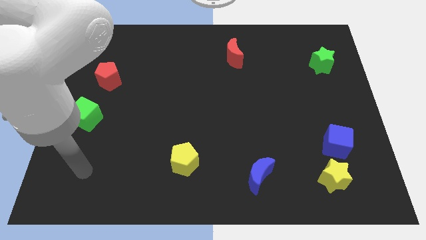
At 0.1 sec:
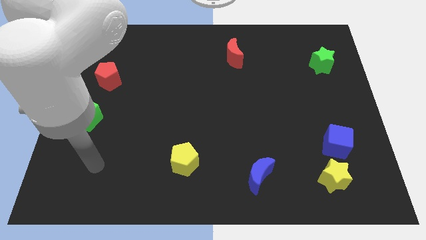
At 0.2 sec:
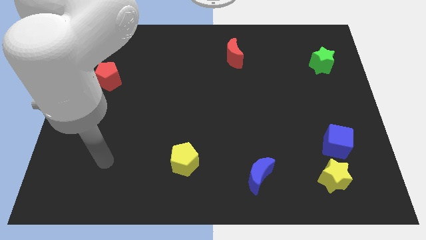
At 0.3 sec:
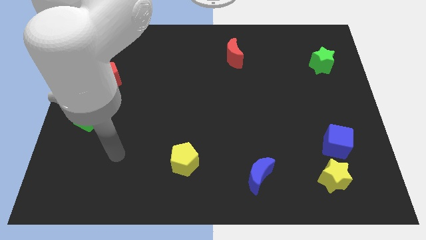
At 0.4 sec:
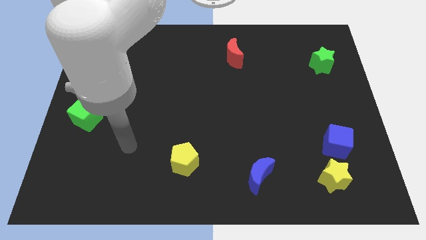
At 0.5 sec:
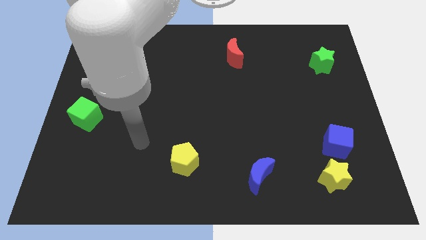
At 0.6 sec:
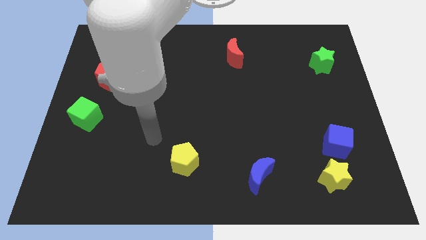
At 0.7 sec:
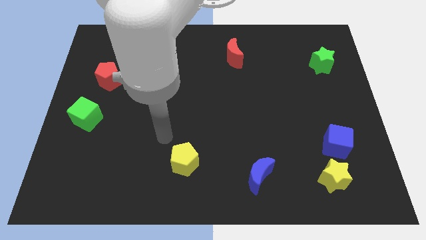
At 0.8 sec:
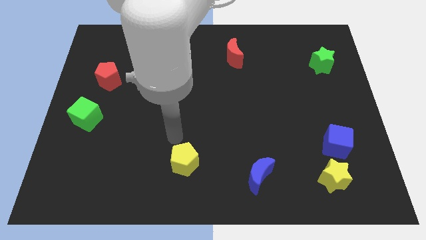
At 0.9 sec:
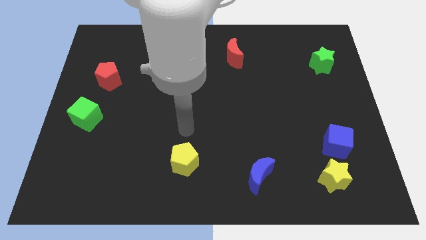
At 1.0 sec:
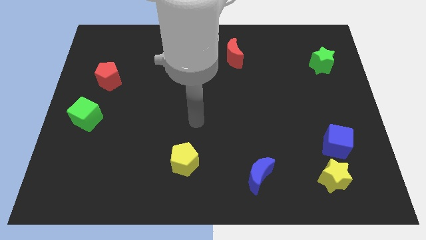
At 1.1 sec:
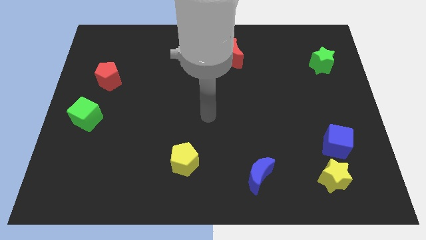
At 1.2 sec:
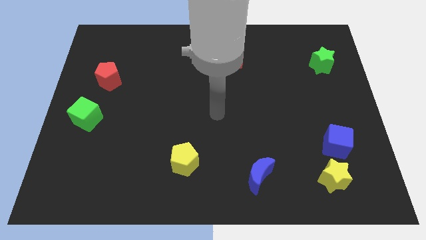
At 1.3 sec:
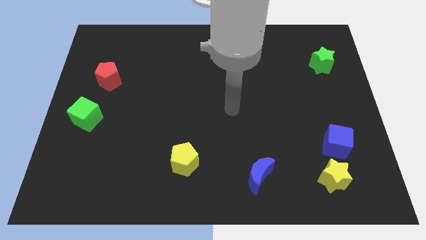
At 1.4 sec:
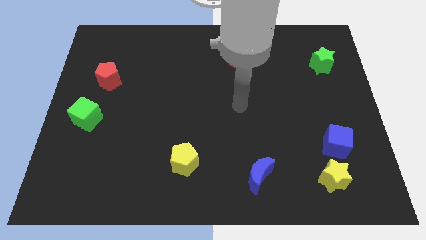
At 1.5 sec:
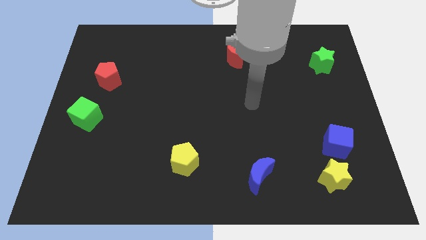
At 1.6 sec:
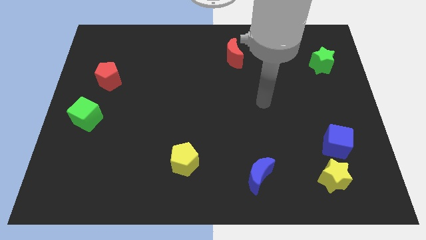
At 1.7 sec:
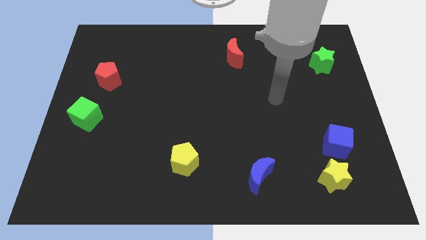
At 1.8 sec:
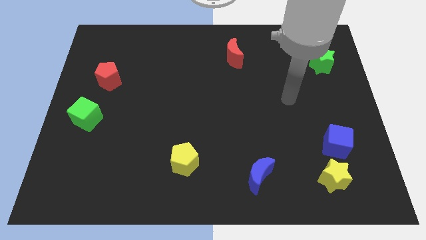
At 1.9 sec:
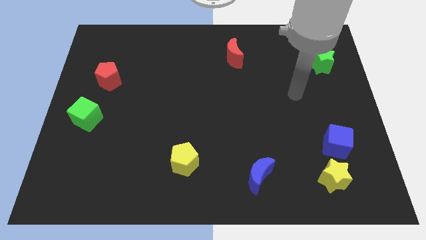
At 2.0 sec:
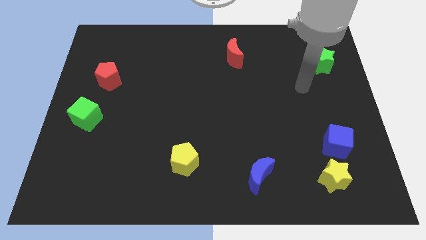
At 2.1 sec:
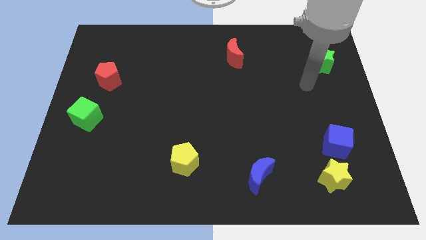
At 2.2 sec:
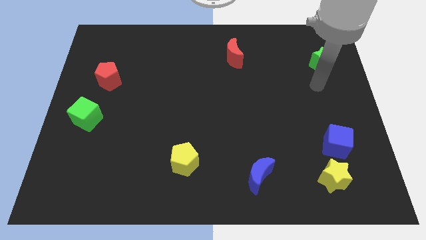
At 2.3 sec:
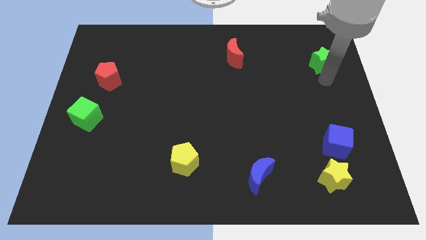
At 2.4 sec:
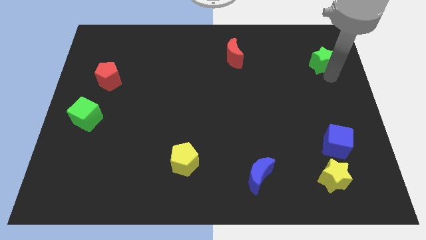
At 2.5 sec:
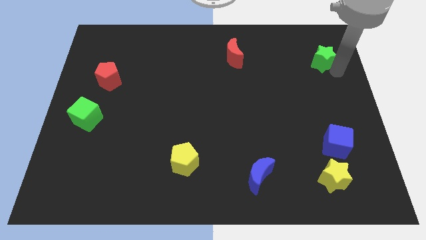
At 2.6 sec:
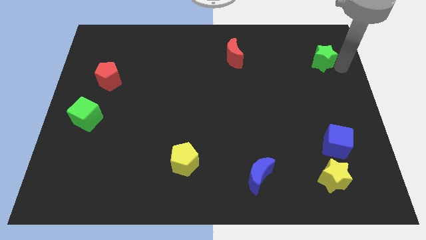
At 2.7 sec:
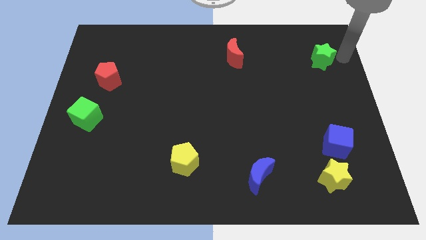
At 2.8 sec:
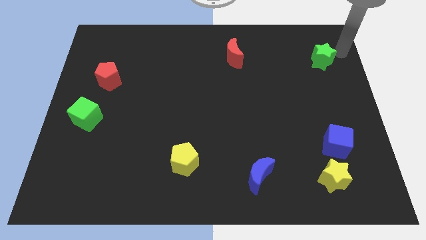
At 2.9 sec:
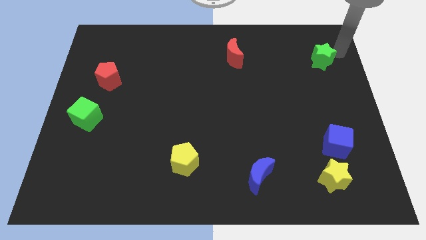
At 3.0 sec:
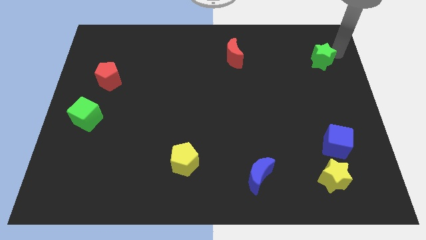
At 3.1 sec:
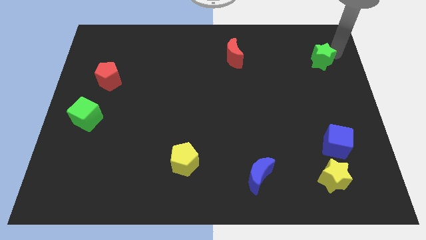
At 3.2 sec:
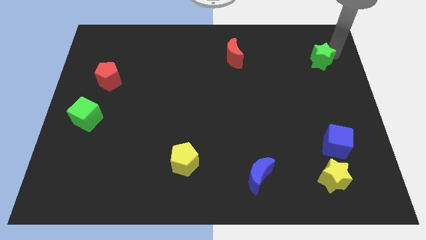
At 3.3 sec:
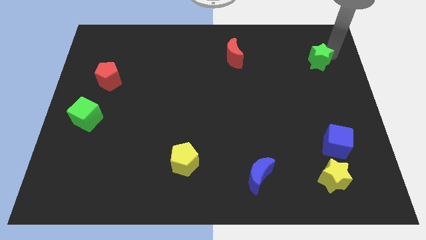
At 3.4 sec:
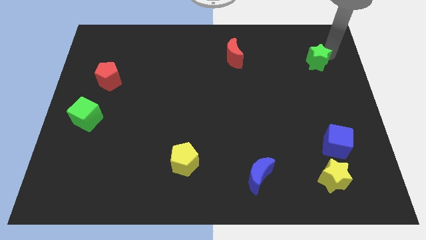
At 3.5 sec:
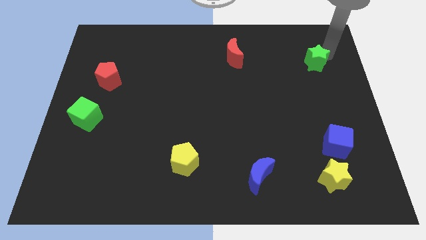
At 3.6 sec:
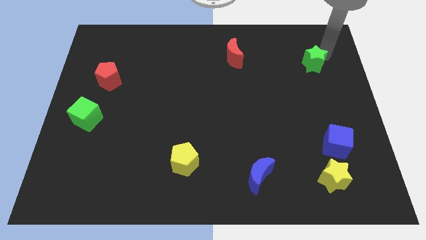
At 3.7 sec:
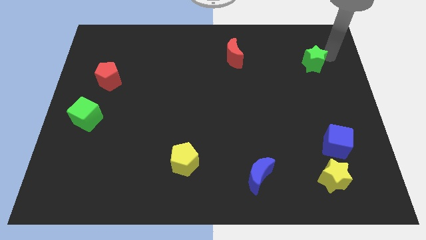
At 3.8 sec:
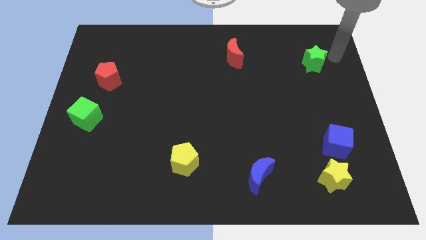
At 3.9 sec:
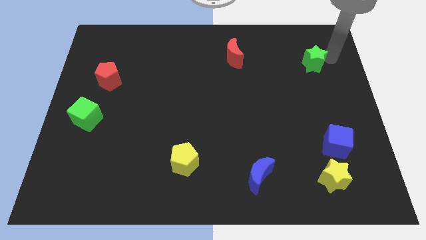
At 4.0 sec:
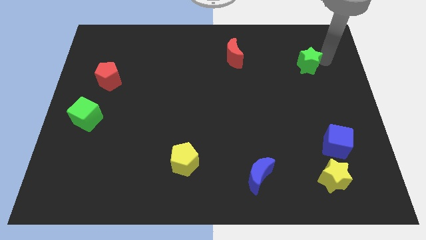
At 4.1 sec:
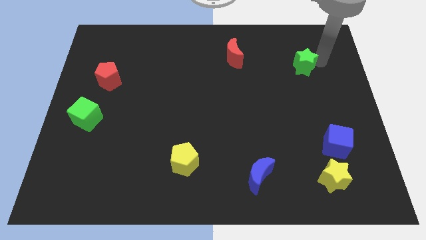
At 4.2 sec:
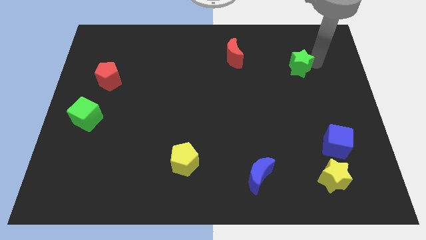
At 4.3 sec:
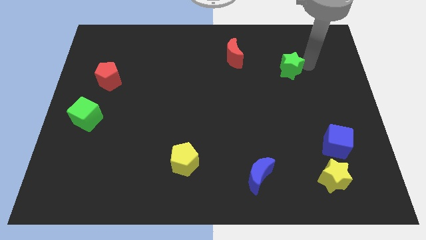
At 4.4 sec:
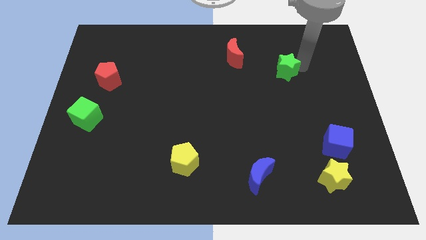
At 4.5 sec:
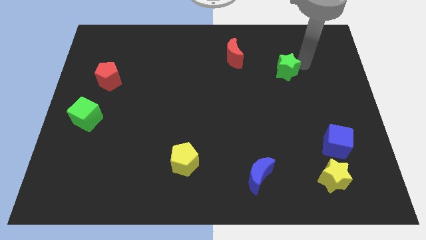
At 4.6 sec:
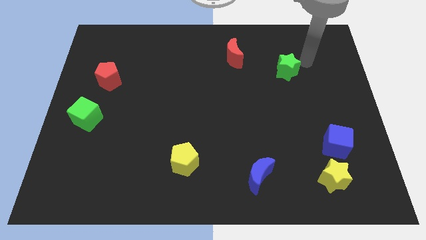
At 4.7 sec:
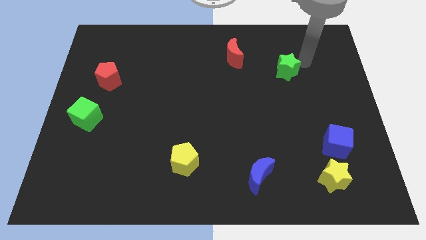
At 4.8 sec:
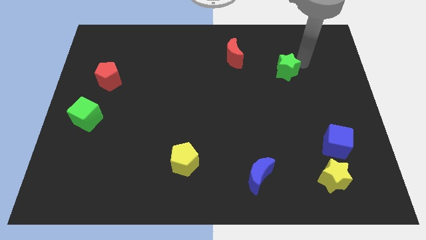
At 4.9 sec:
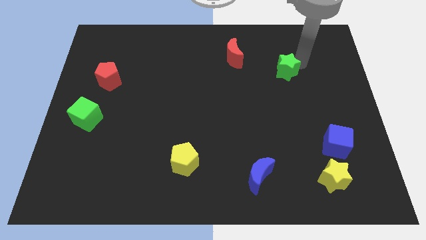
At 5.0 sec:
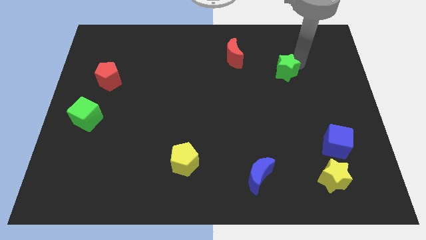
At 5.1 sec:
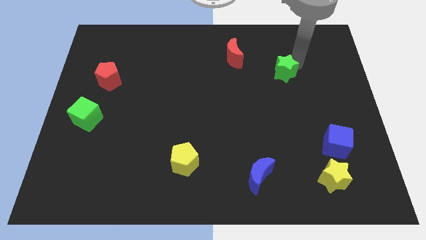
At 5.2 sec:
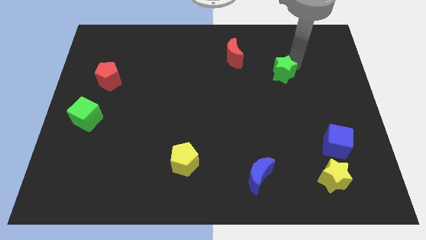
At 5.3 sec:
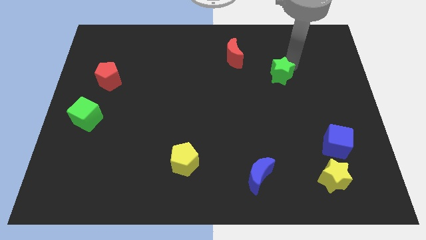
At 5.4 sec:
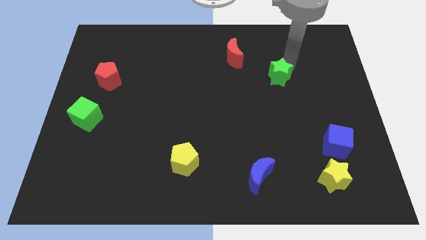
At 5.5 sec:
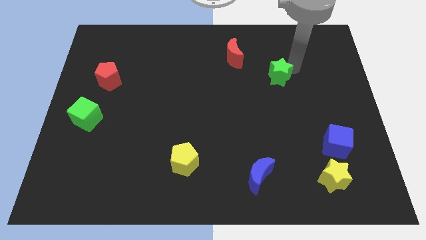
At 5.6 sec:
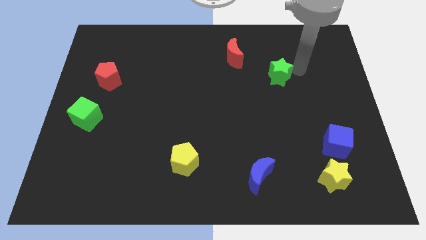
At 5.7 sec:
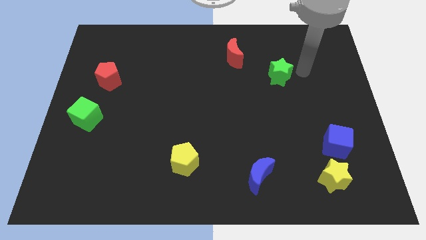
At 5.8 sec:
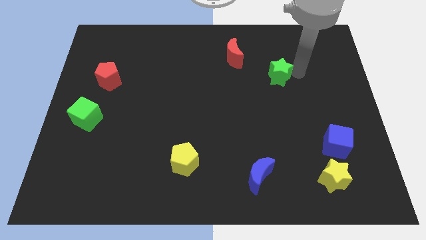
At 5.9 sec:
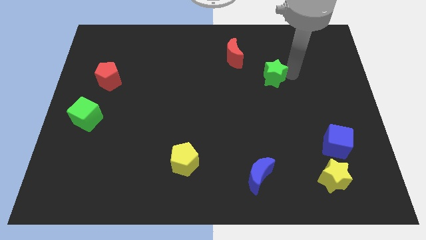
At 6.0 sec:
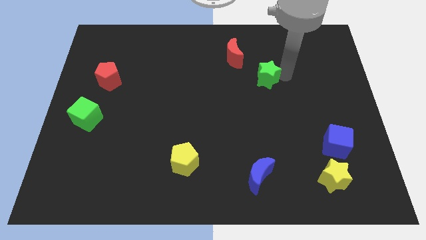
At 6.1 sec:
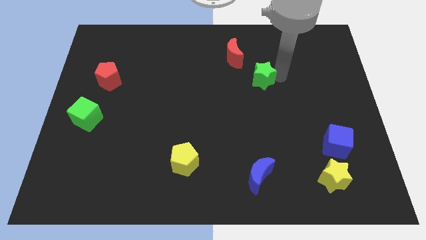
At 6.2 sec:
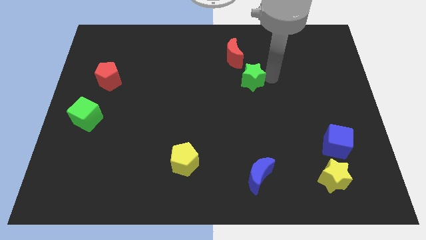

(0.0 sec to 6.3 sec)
move the green star to the center

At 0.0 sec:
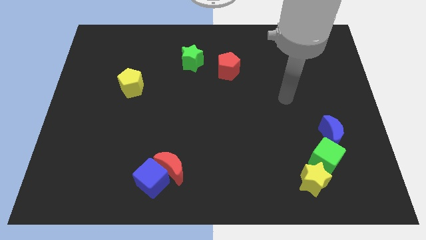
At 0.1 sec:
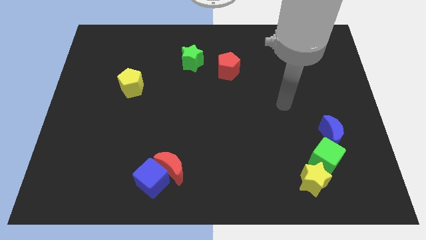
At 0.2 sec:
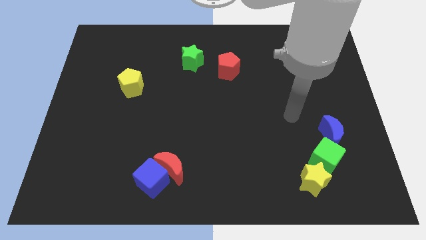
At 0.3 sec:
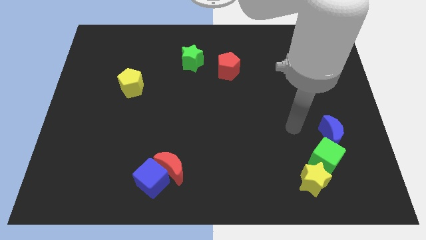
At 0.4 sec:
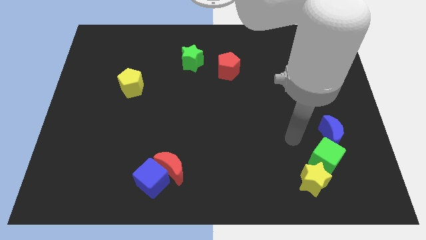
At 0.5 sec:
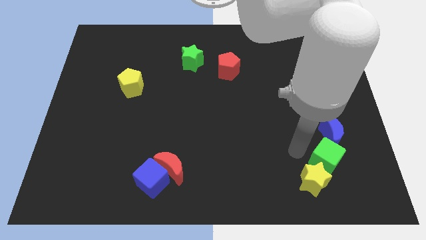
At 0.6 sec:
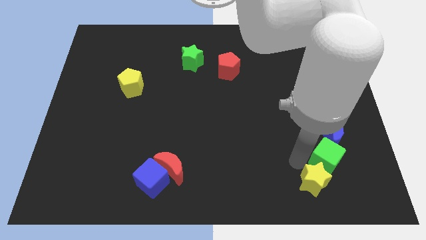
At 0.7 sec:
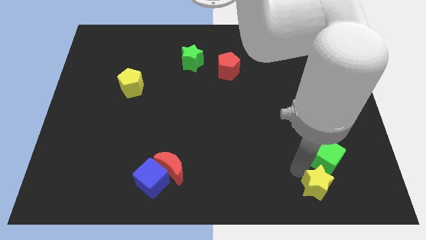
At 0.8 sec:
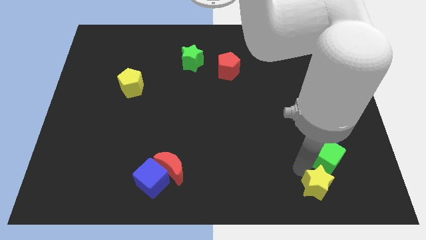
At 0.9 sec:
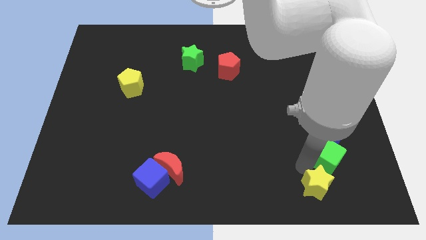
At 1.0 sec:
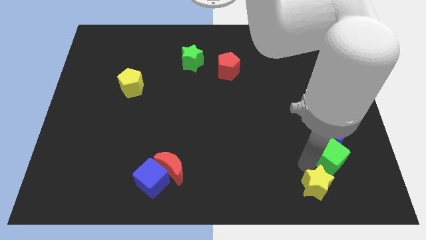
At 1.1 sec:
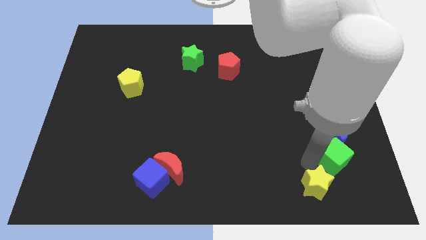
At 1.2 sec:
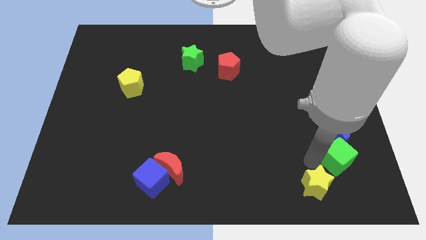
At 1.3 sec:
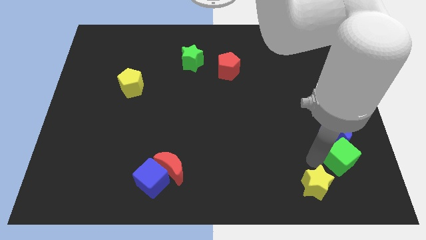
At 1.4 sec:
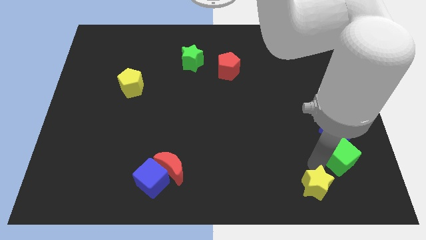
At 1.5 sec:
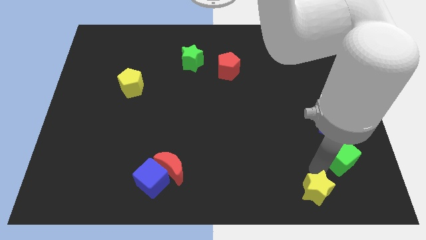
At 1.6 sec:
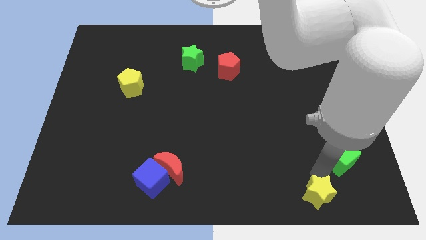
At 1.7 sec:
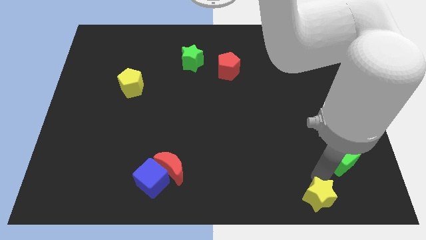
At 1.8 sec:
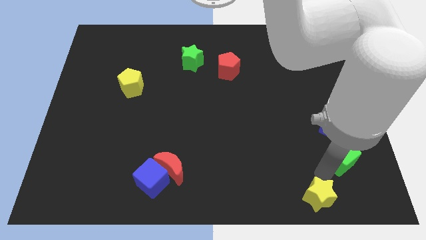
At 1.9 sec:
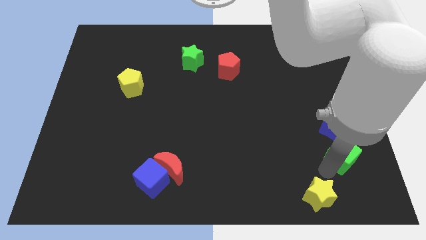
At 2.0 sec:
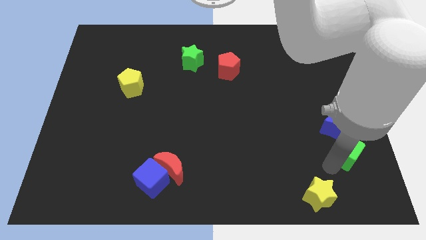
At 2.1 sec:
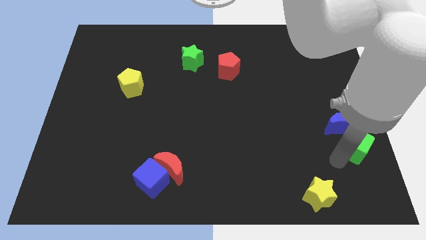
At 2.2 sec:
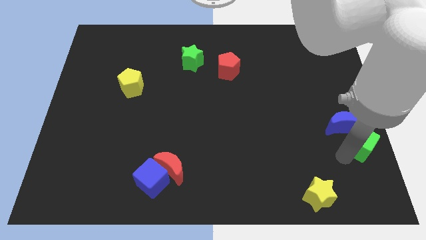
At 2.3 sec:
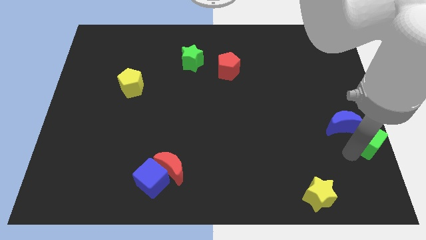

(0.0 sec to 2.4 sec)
slide the green cube to the right side
